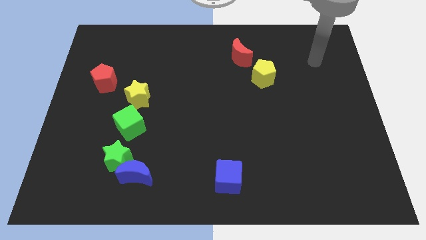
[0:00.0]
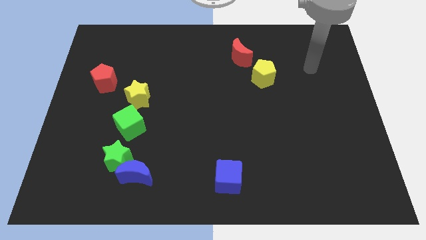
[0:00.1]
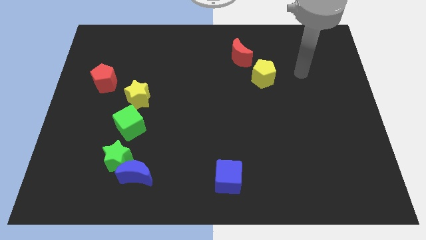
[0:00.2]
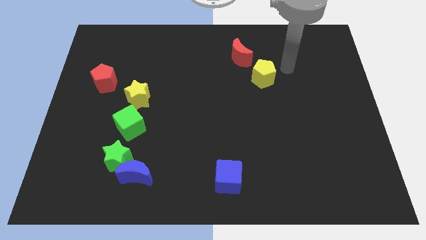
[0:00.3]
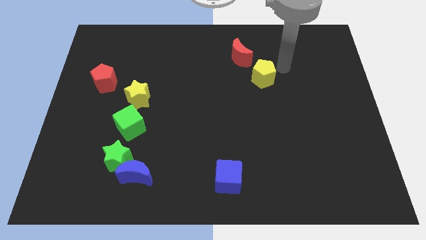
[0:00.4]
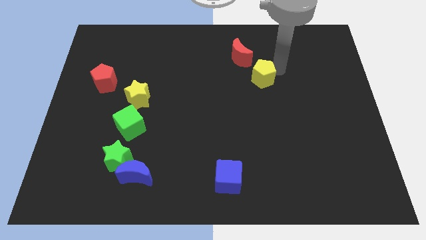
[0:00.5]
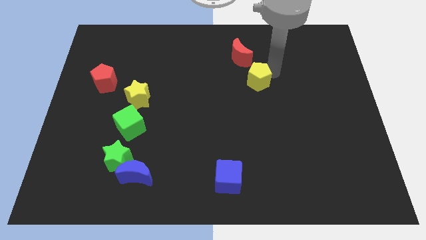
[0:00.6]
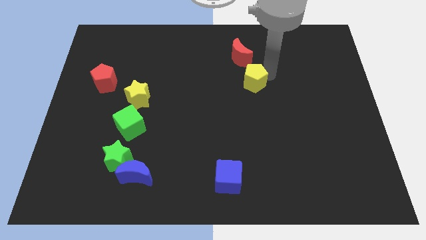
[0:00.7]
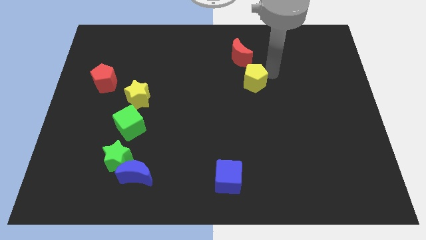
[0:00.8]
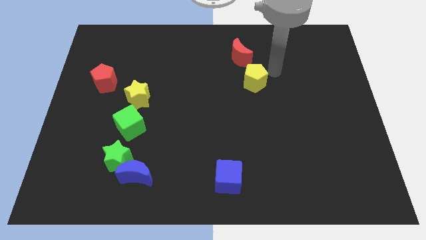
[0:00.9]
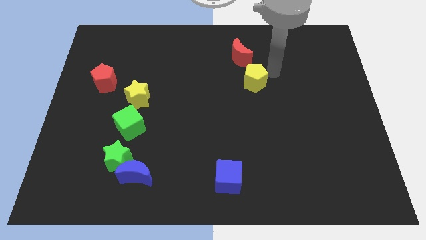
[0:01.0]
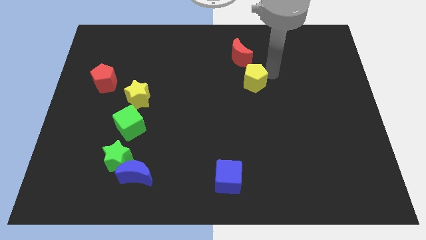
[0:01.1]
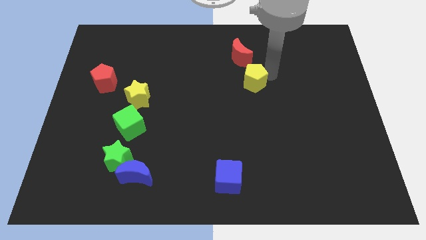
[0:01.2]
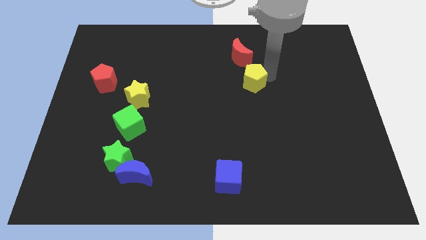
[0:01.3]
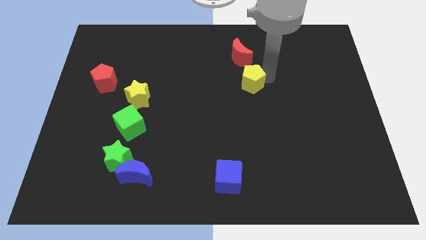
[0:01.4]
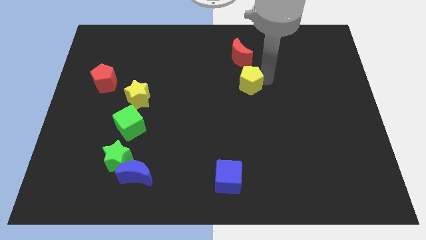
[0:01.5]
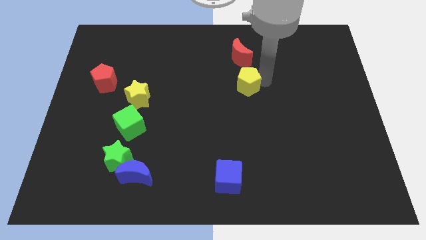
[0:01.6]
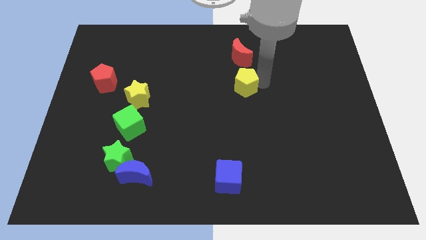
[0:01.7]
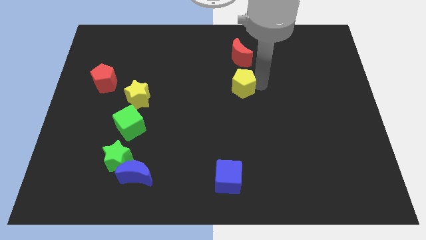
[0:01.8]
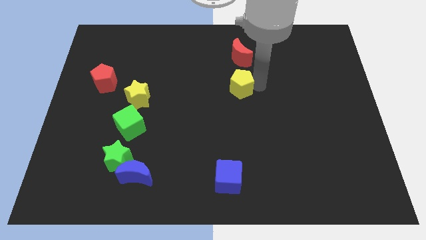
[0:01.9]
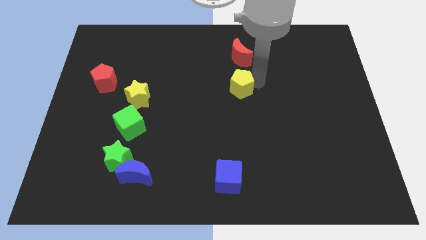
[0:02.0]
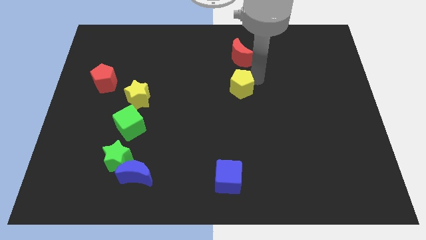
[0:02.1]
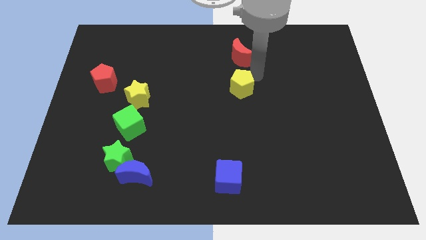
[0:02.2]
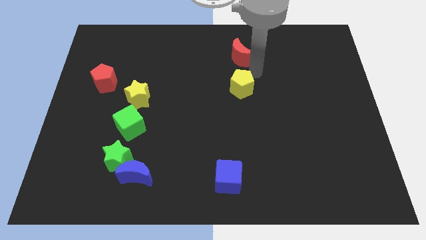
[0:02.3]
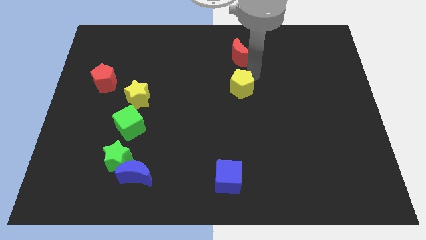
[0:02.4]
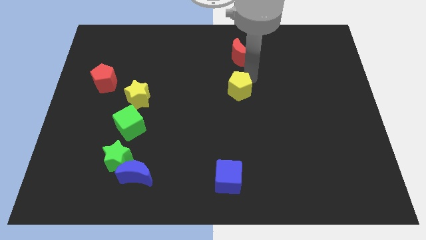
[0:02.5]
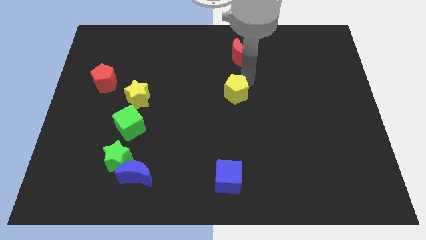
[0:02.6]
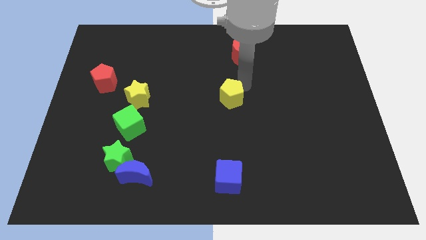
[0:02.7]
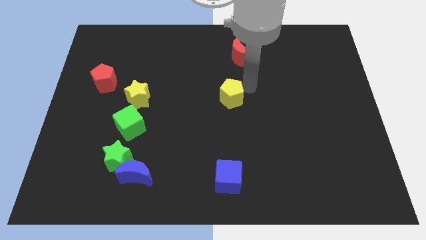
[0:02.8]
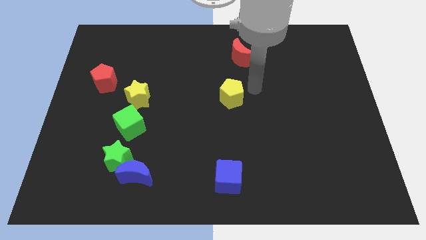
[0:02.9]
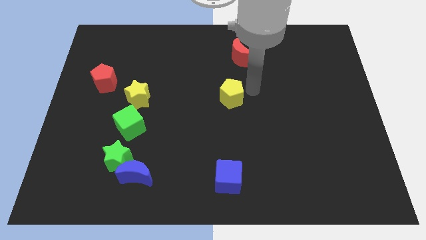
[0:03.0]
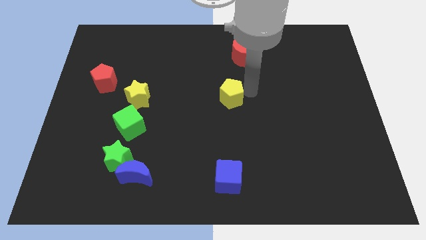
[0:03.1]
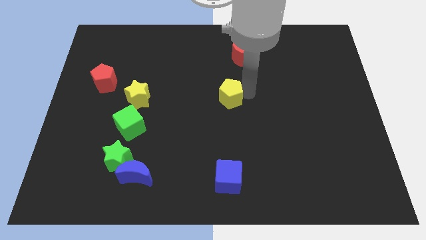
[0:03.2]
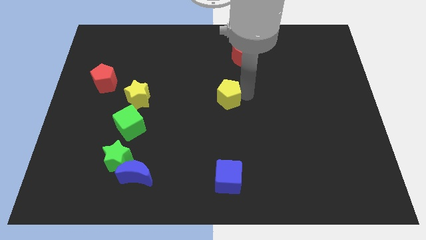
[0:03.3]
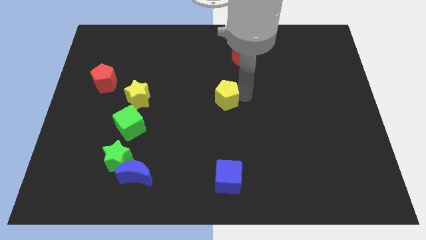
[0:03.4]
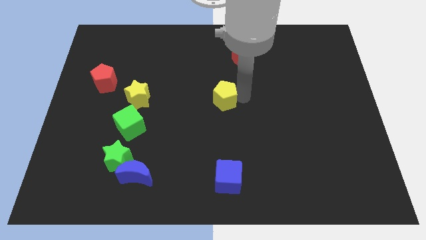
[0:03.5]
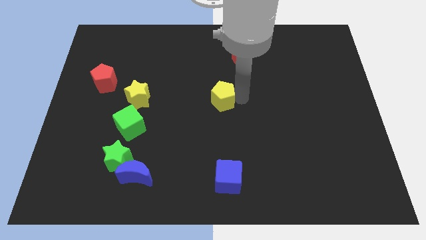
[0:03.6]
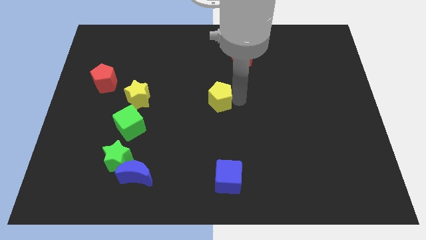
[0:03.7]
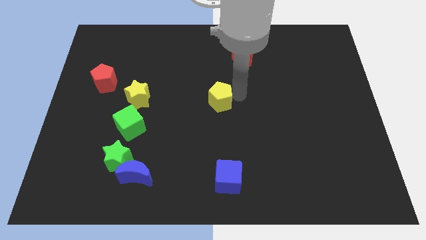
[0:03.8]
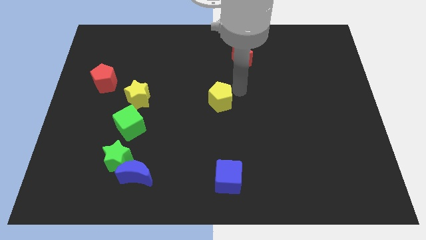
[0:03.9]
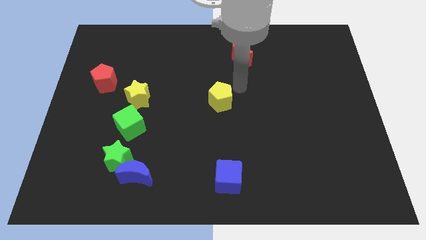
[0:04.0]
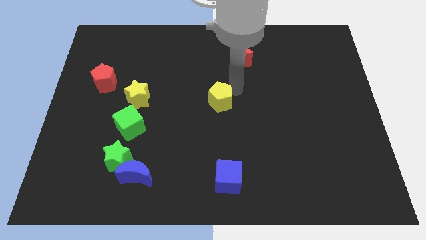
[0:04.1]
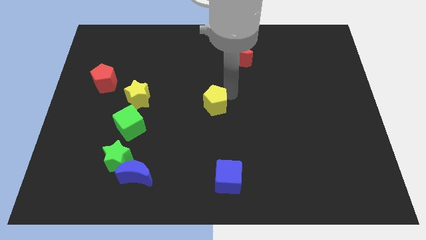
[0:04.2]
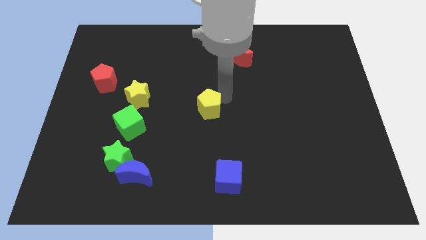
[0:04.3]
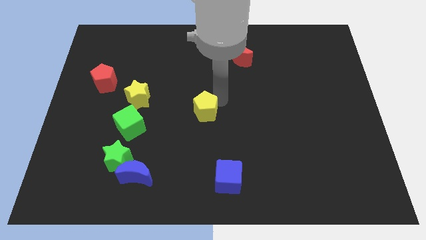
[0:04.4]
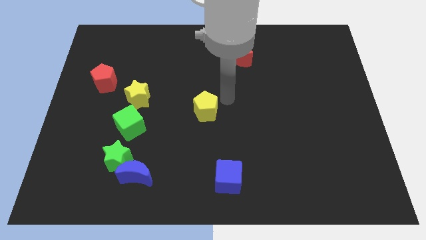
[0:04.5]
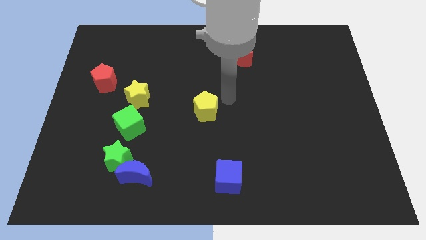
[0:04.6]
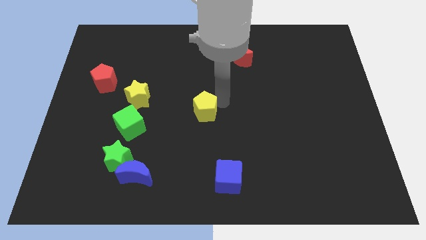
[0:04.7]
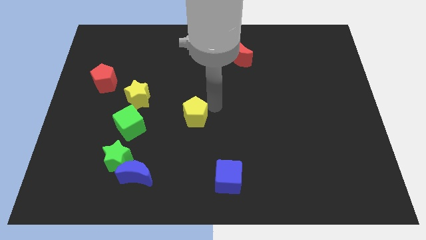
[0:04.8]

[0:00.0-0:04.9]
move the yellow pentagon just right of the green cube

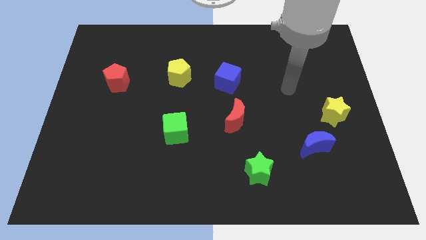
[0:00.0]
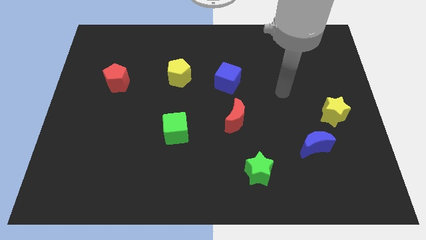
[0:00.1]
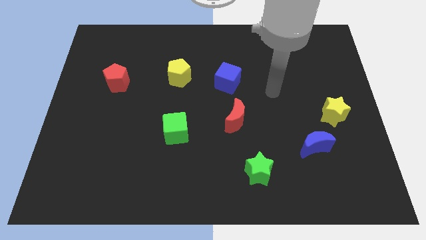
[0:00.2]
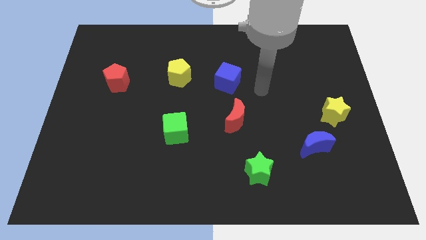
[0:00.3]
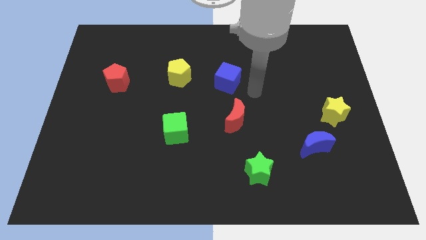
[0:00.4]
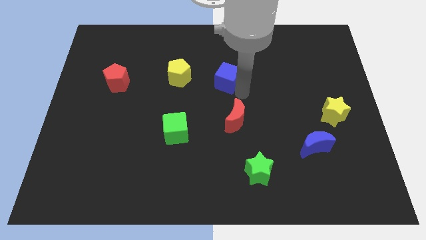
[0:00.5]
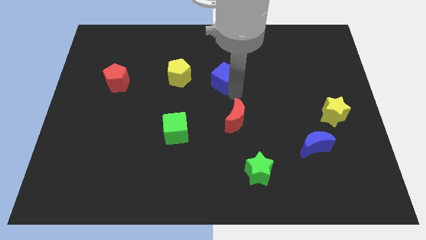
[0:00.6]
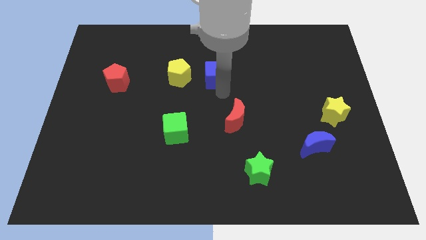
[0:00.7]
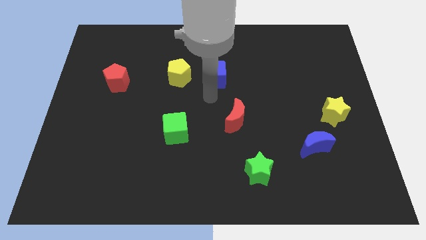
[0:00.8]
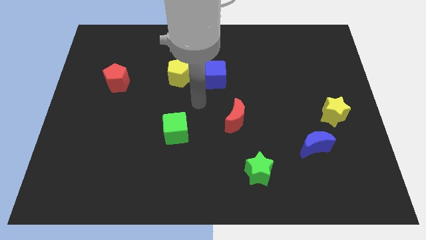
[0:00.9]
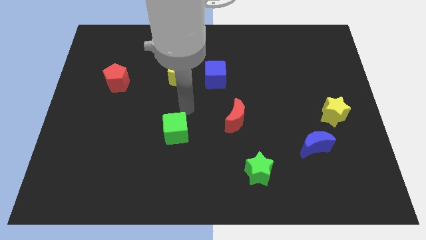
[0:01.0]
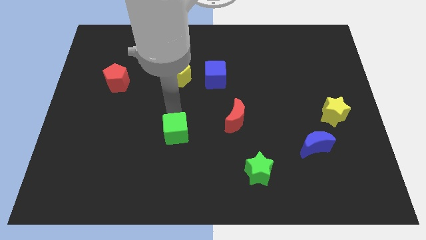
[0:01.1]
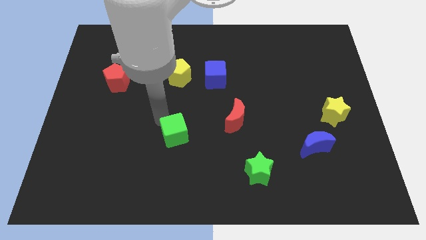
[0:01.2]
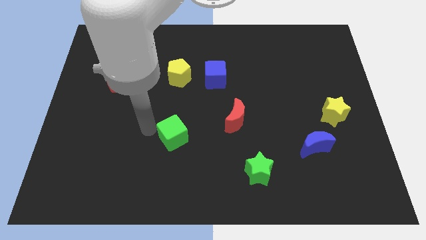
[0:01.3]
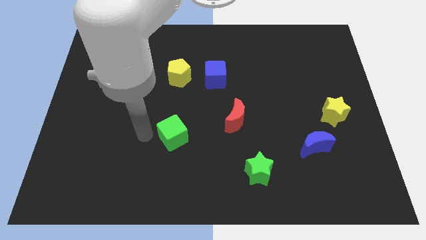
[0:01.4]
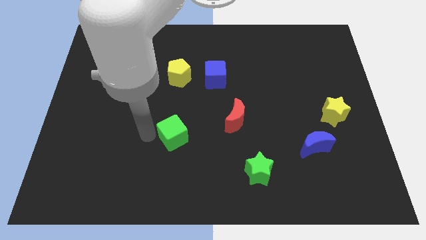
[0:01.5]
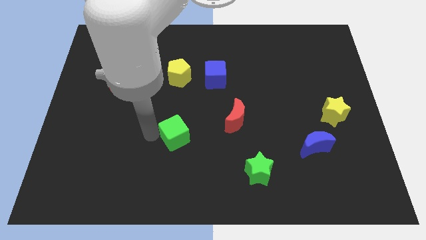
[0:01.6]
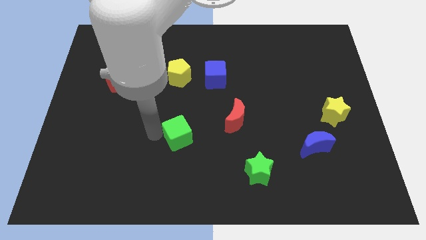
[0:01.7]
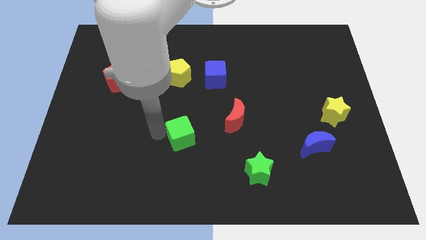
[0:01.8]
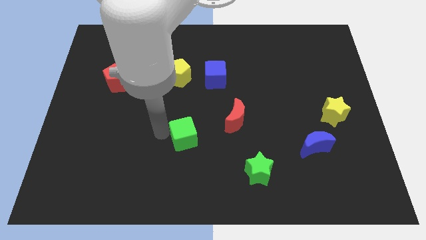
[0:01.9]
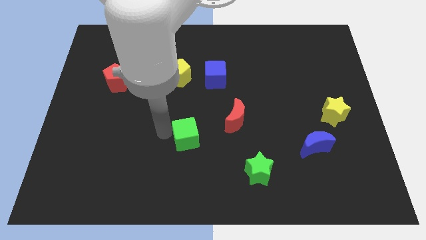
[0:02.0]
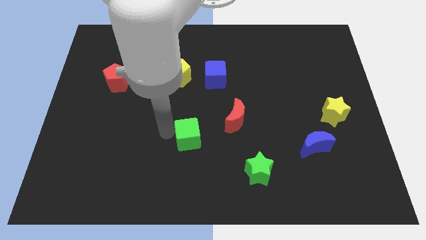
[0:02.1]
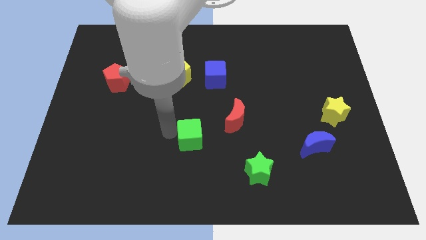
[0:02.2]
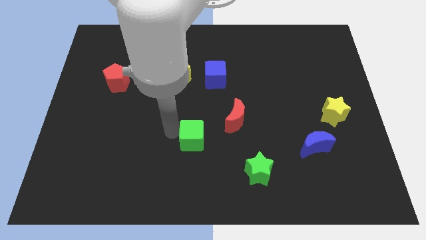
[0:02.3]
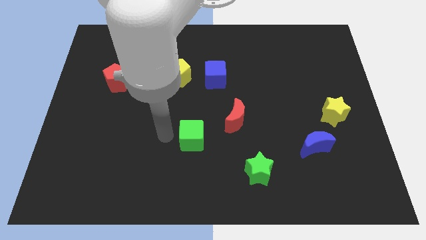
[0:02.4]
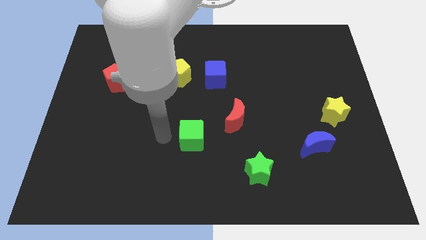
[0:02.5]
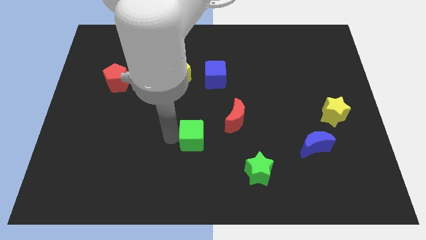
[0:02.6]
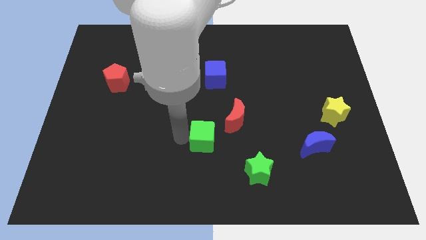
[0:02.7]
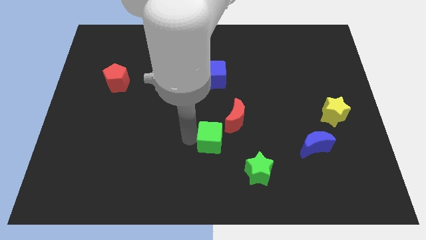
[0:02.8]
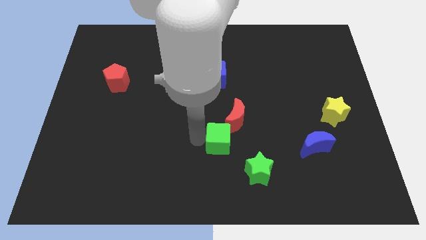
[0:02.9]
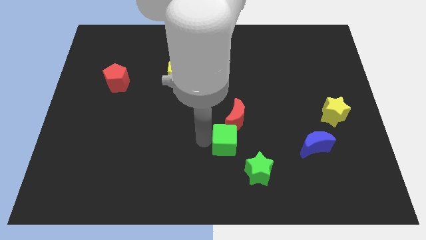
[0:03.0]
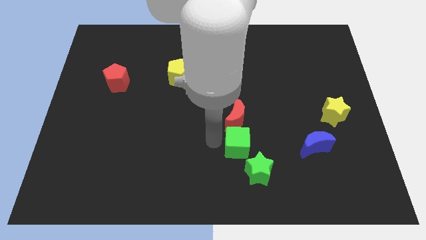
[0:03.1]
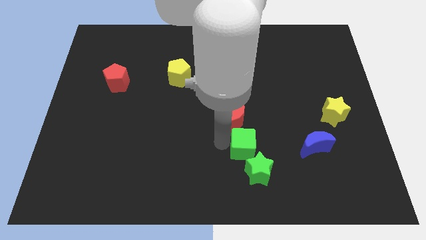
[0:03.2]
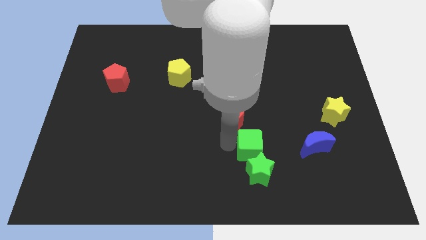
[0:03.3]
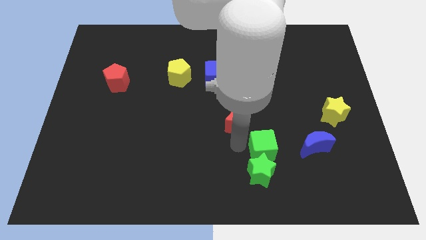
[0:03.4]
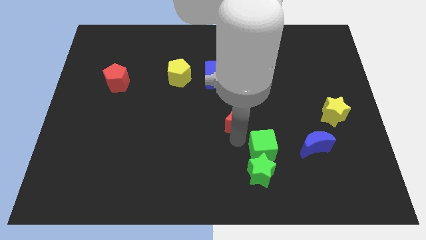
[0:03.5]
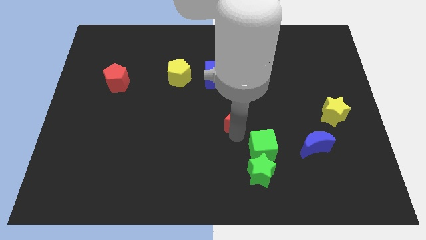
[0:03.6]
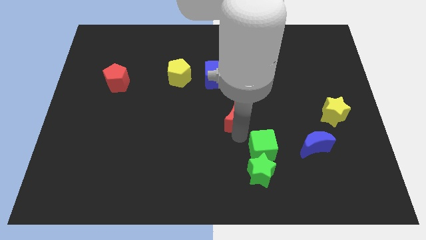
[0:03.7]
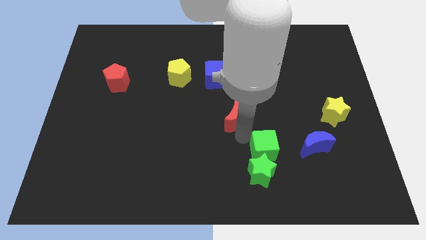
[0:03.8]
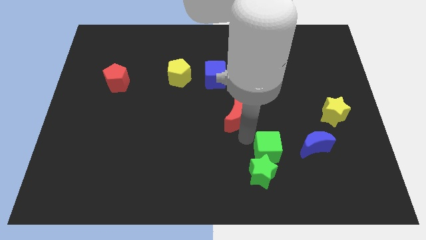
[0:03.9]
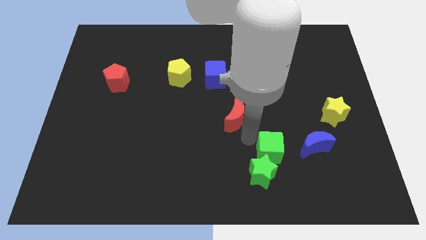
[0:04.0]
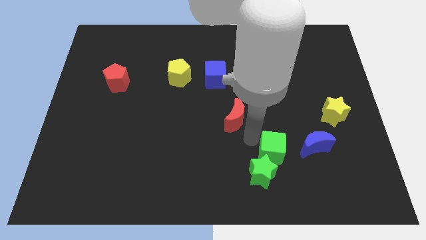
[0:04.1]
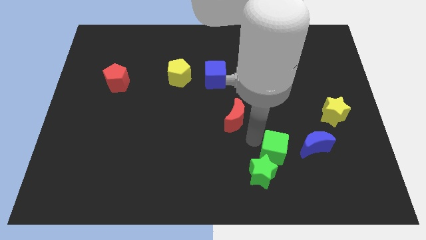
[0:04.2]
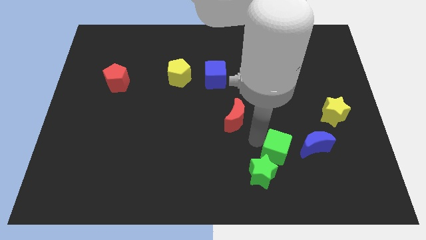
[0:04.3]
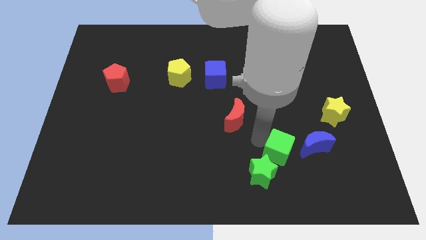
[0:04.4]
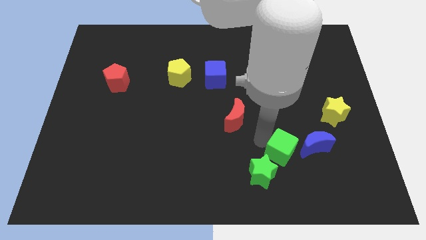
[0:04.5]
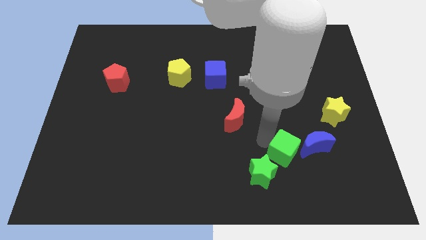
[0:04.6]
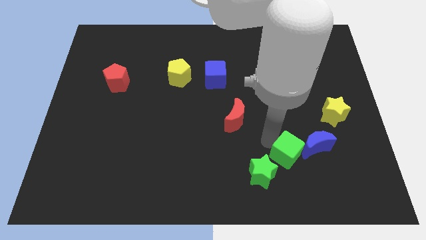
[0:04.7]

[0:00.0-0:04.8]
put the green cube right of the green star
